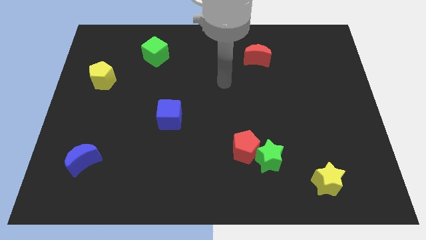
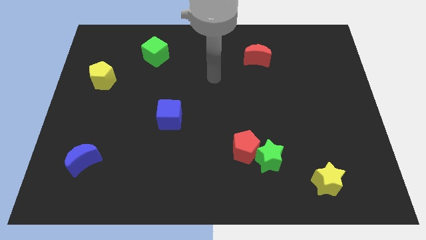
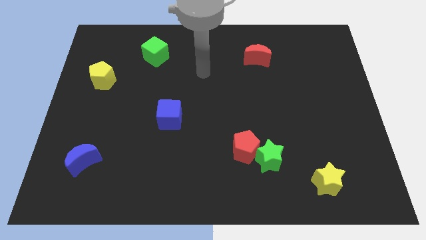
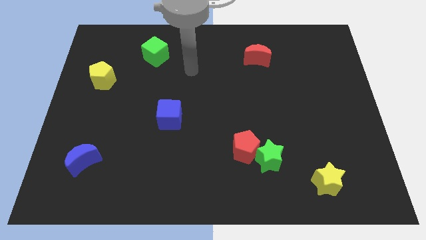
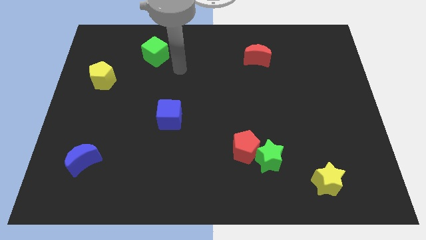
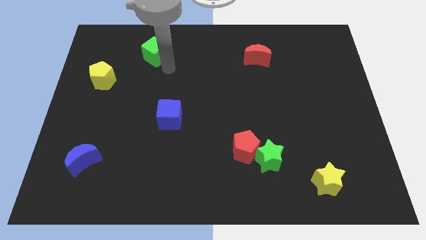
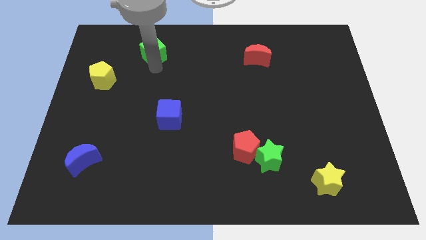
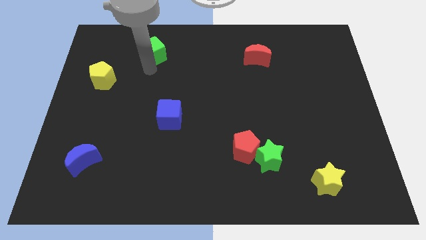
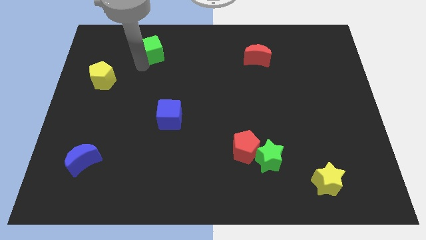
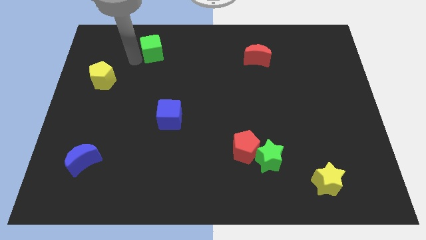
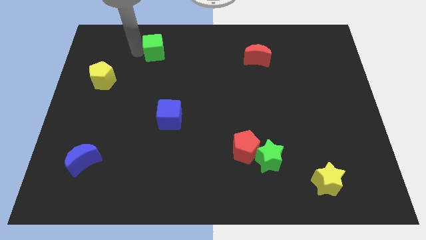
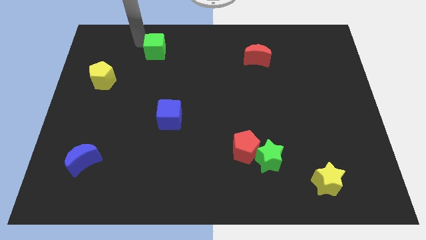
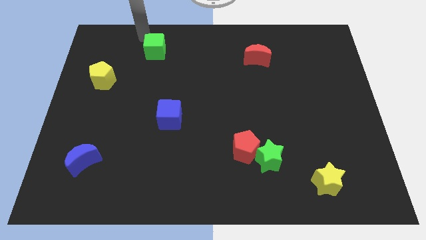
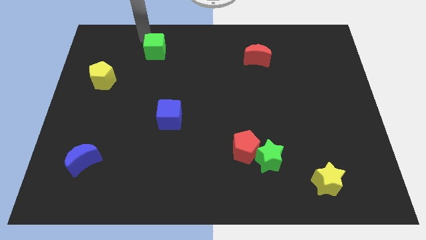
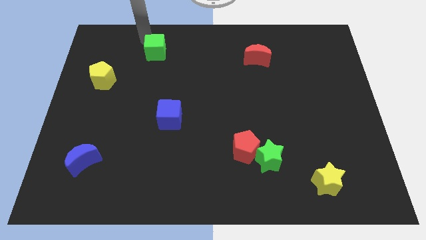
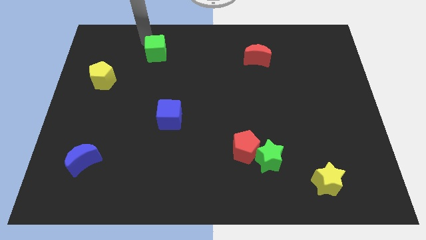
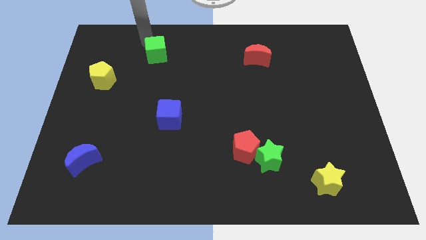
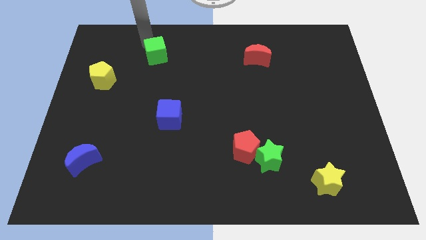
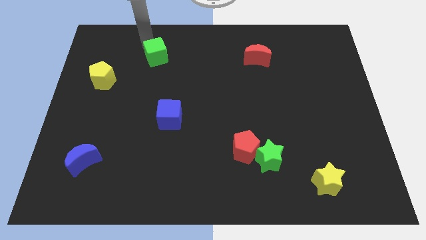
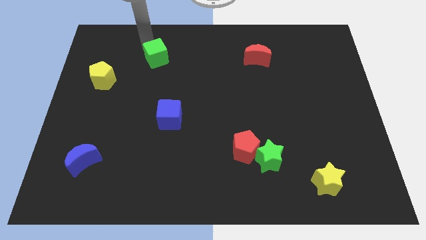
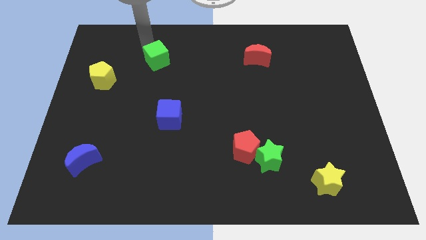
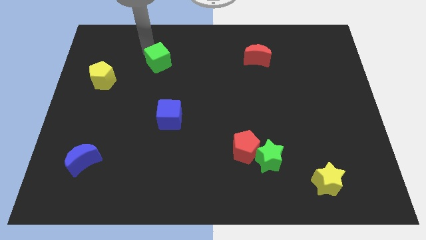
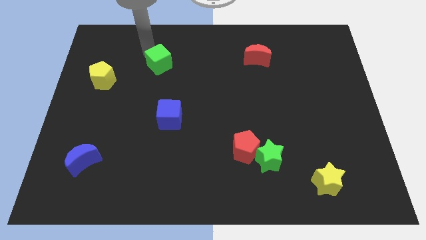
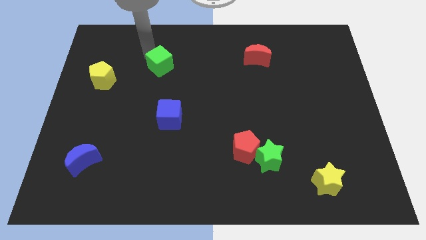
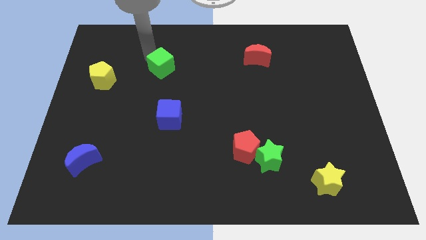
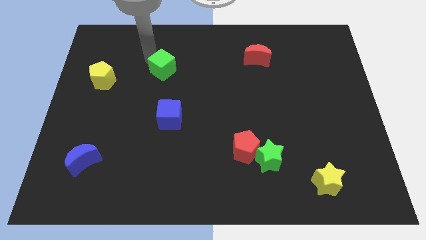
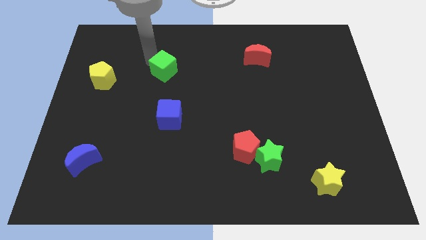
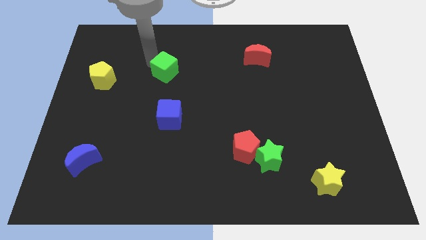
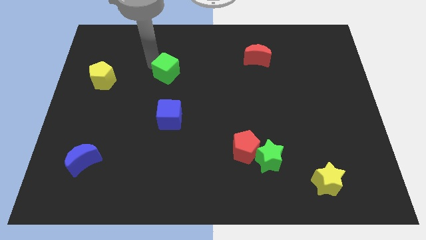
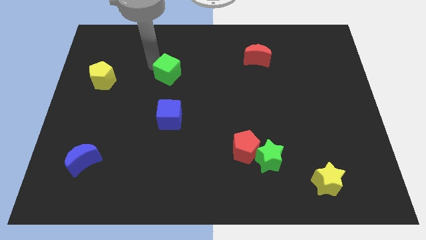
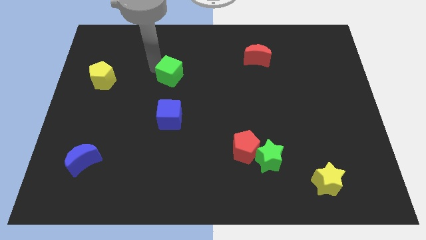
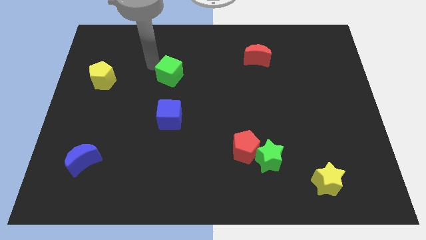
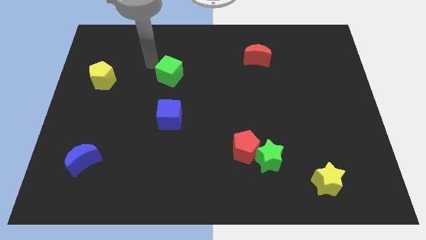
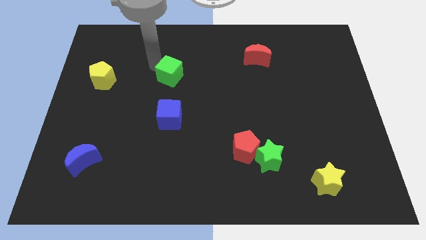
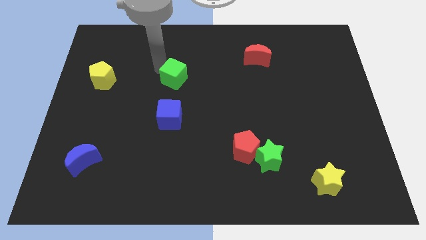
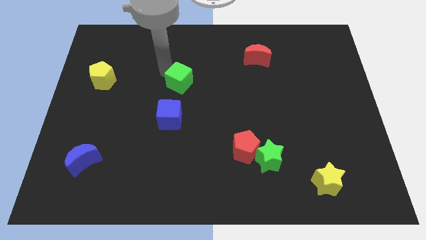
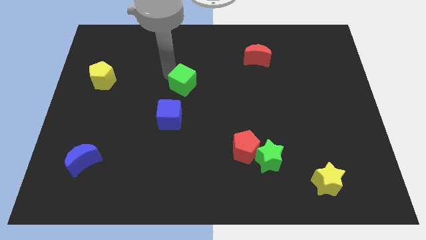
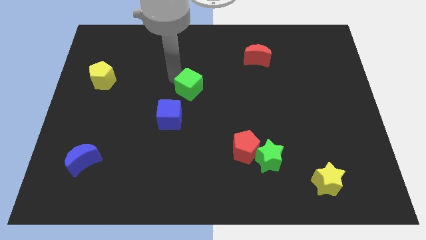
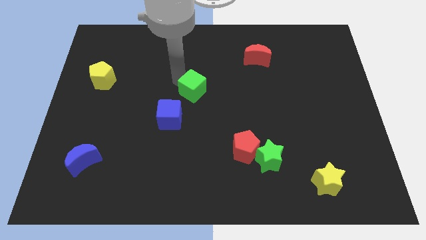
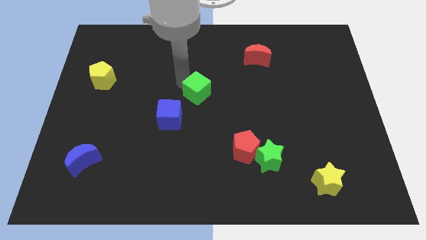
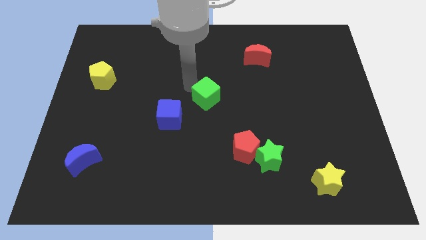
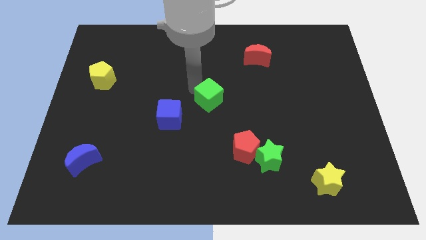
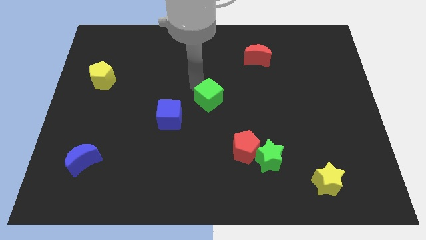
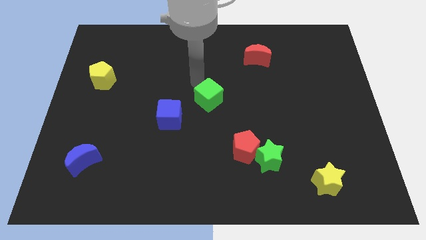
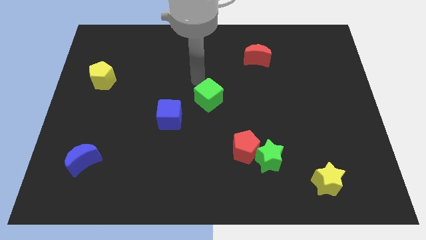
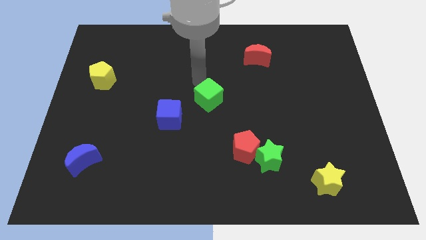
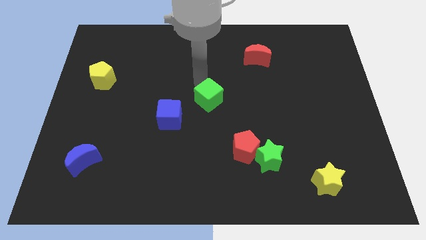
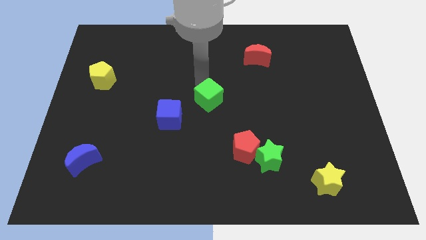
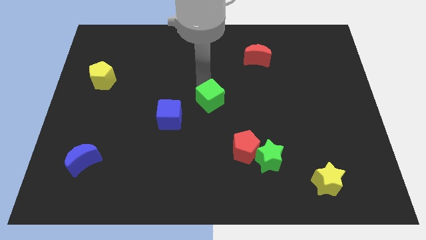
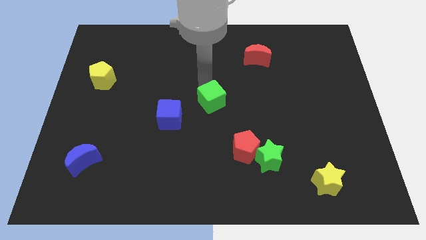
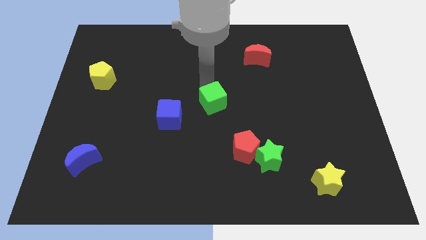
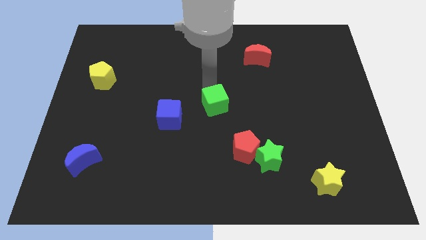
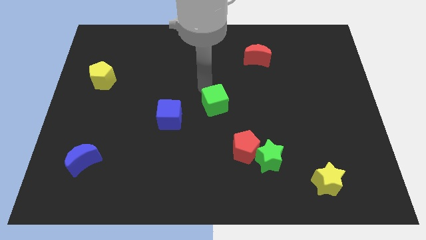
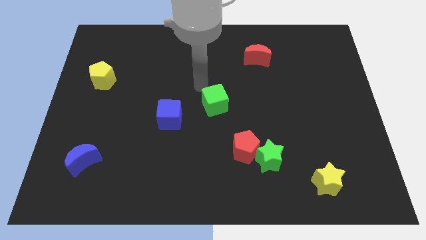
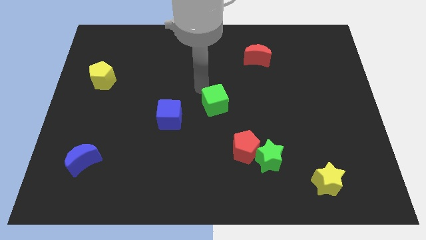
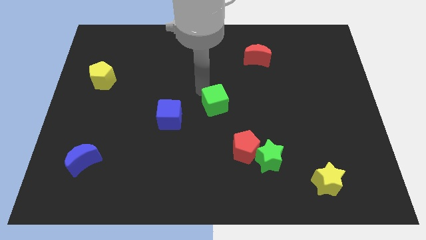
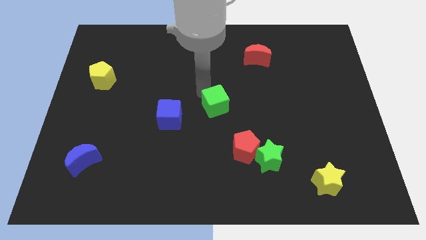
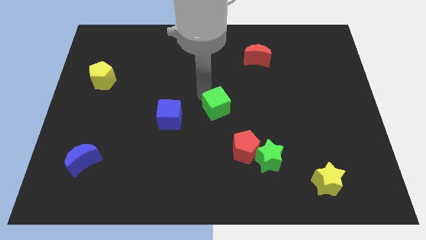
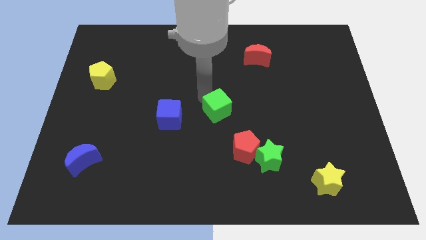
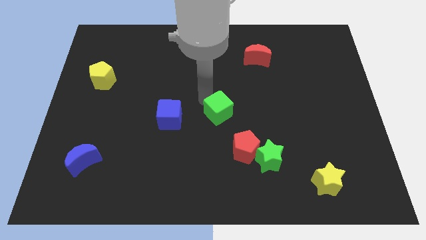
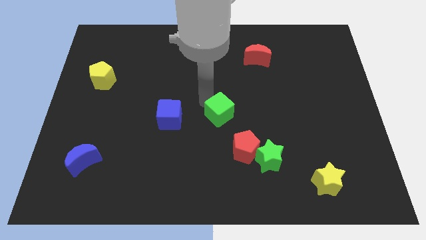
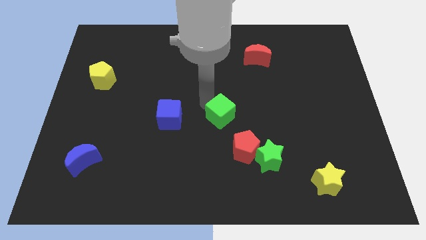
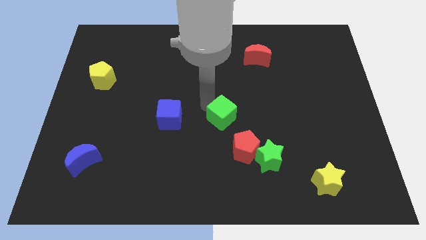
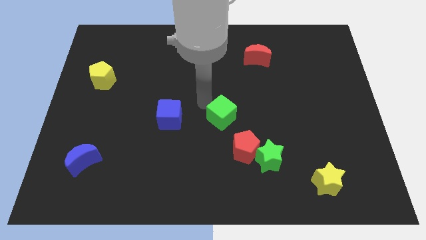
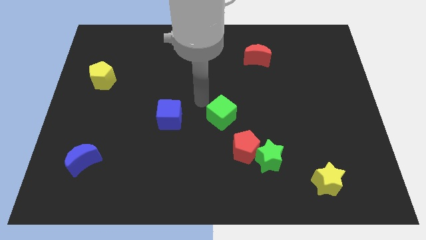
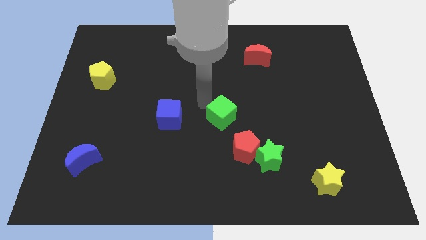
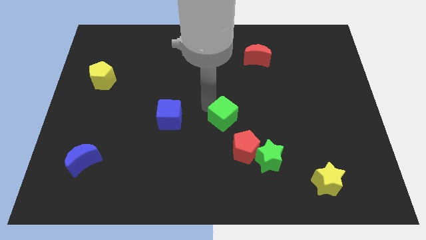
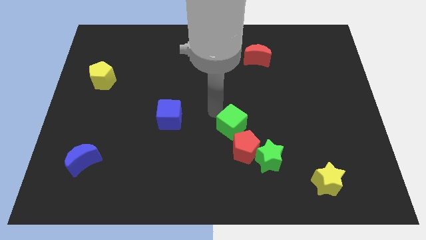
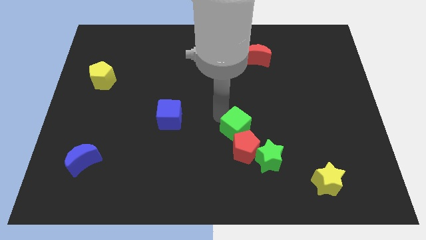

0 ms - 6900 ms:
slide the green cube to the red pentagon

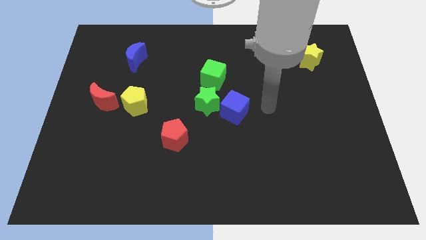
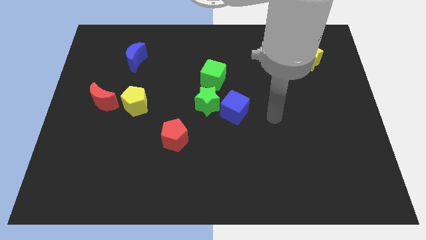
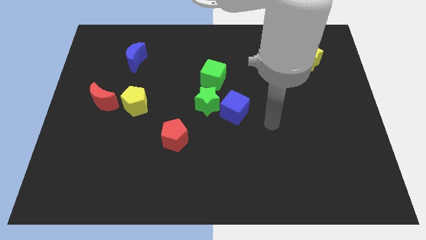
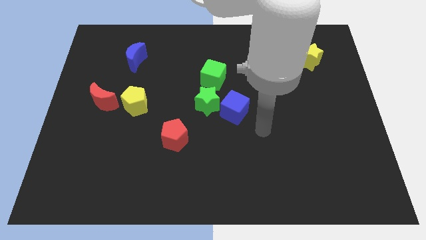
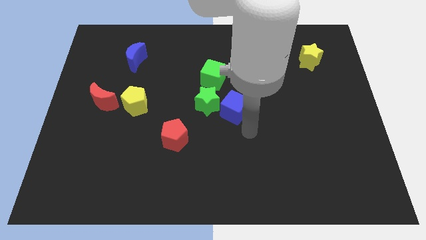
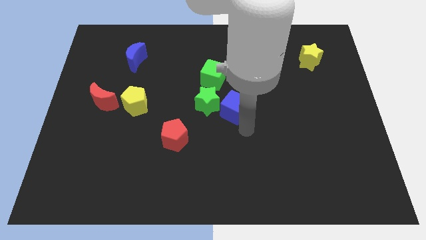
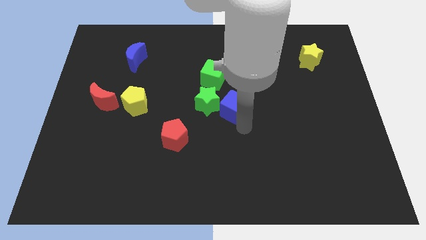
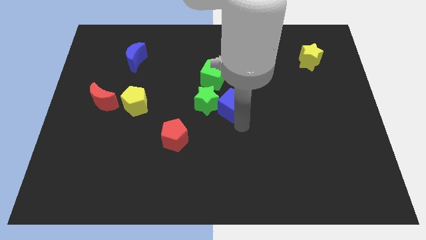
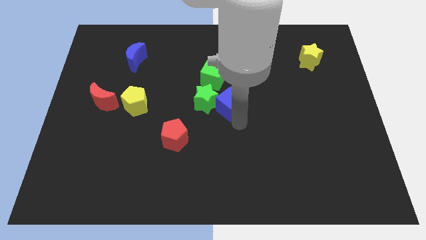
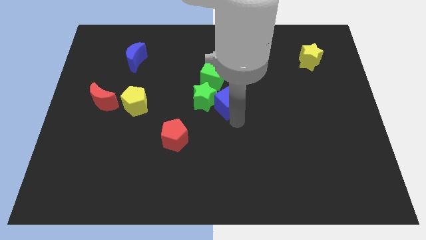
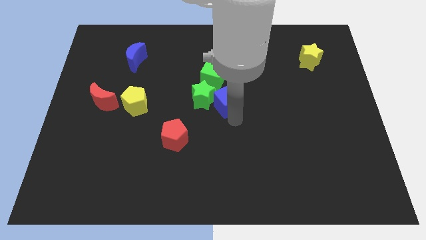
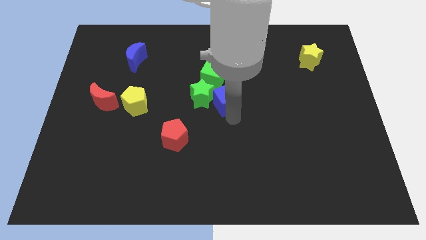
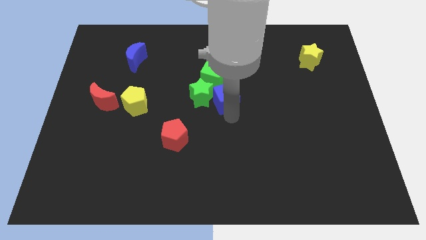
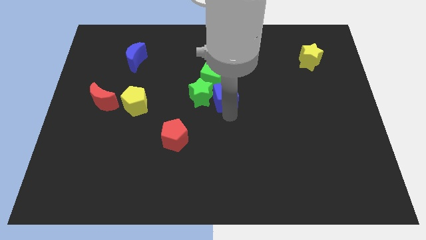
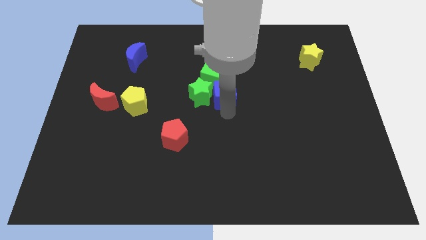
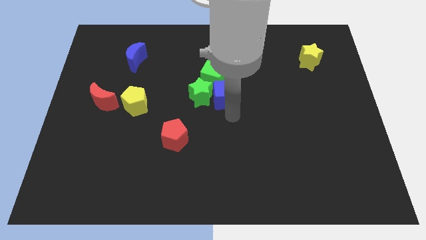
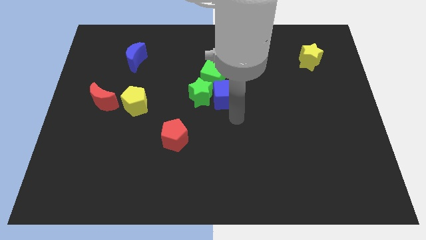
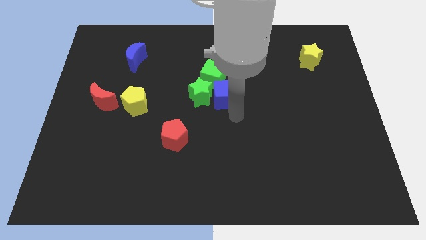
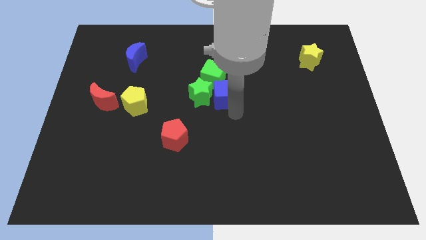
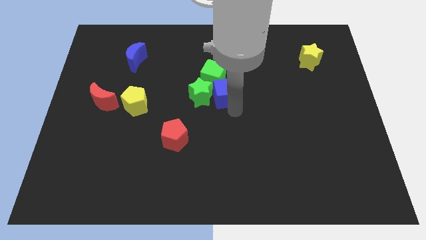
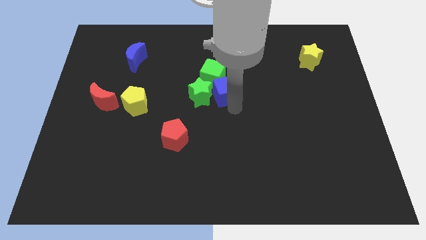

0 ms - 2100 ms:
slide the blue cube towards the green cube
